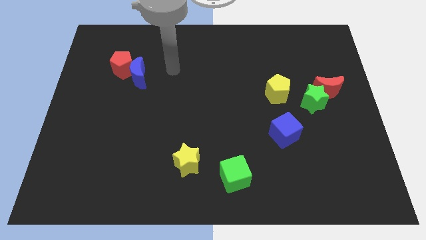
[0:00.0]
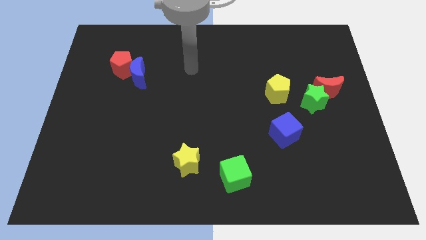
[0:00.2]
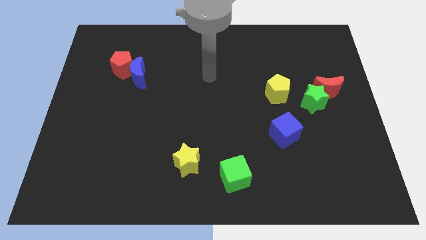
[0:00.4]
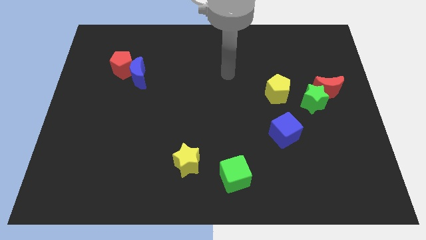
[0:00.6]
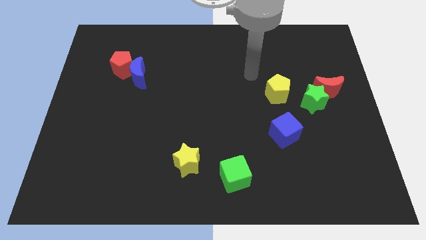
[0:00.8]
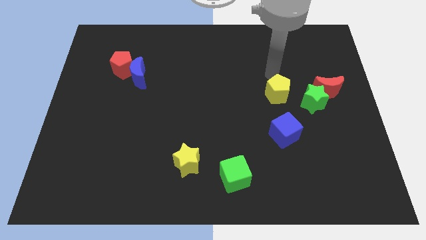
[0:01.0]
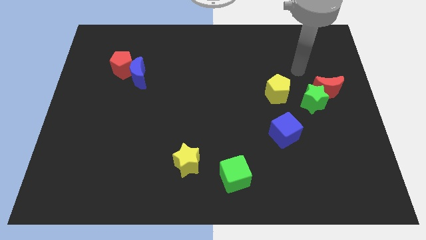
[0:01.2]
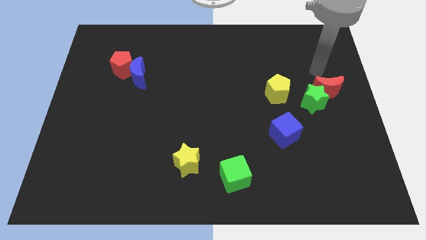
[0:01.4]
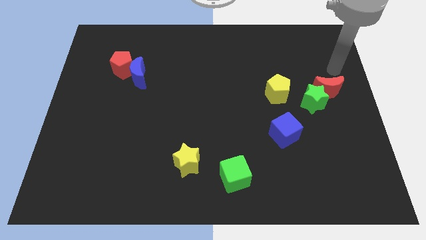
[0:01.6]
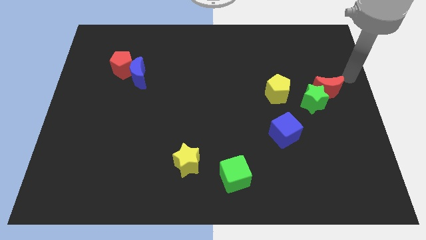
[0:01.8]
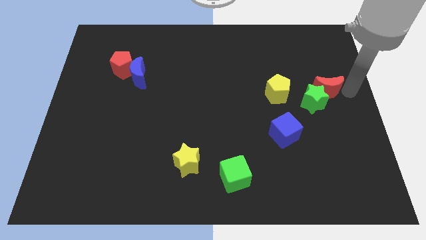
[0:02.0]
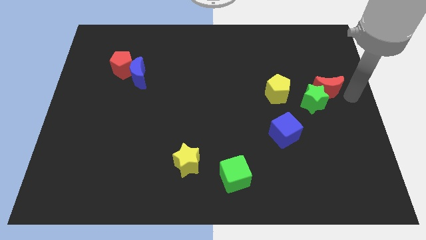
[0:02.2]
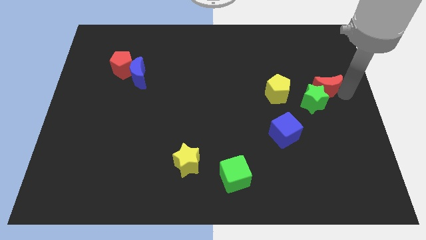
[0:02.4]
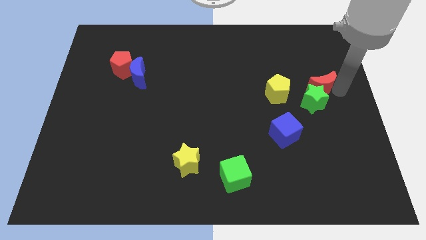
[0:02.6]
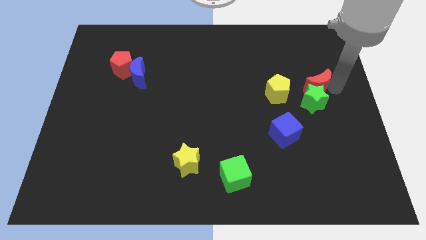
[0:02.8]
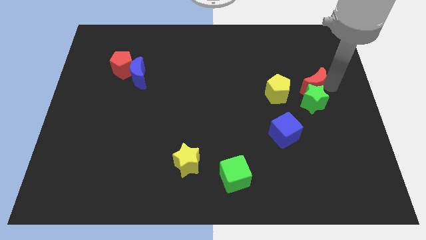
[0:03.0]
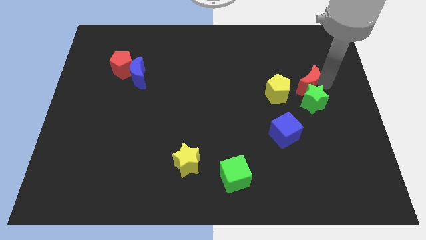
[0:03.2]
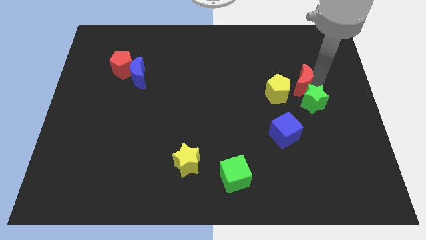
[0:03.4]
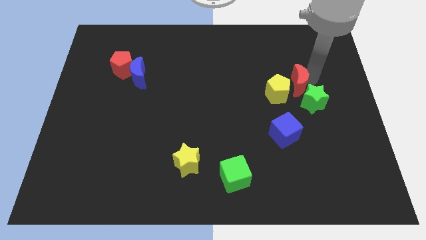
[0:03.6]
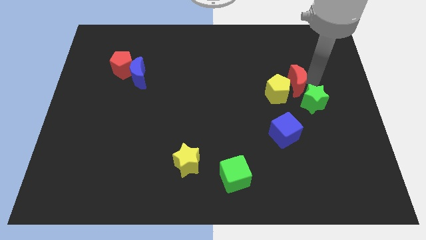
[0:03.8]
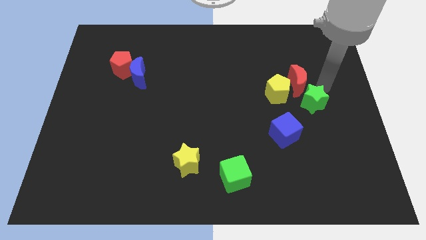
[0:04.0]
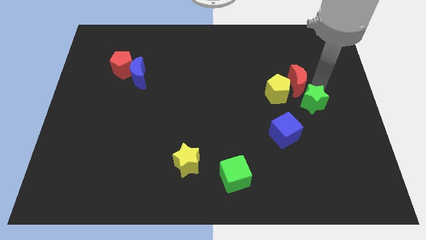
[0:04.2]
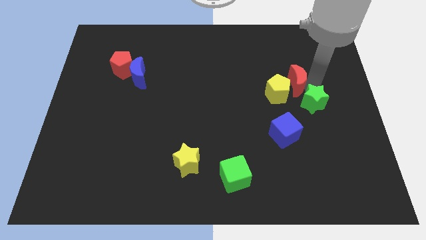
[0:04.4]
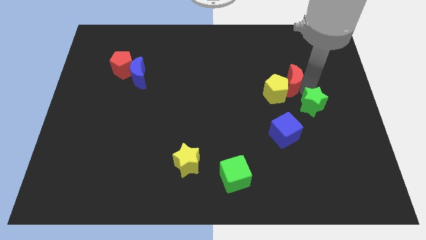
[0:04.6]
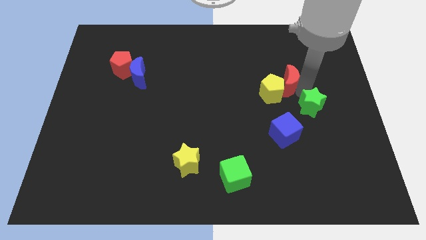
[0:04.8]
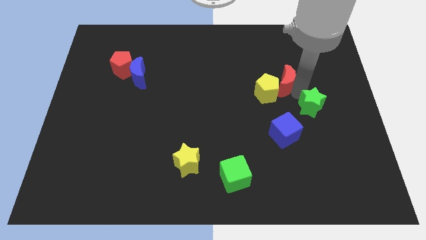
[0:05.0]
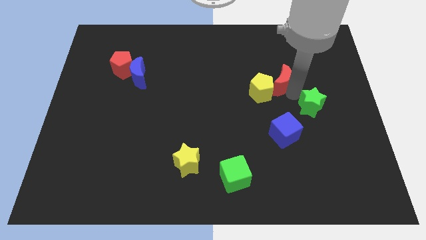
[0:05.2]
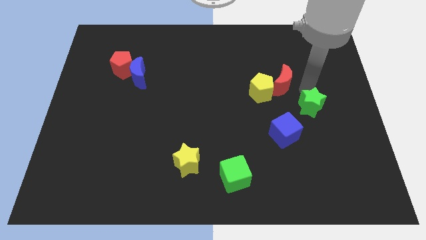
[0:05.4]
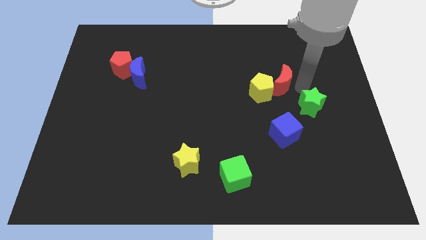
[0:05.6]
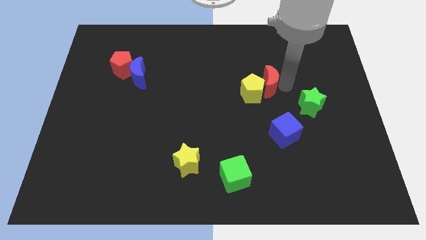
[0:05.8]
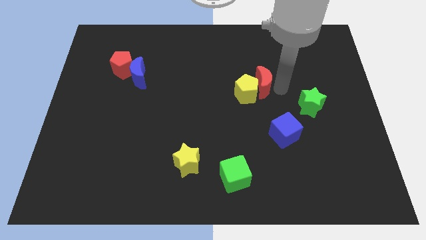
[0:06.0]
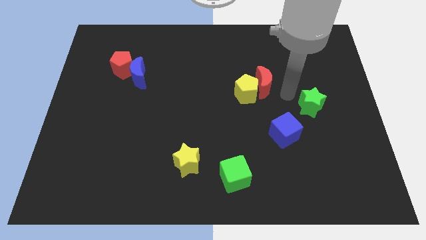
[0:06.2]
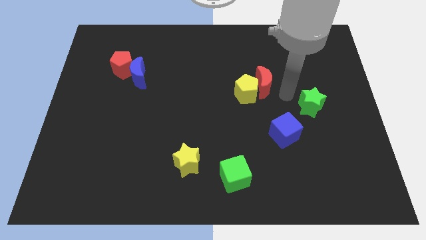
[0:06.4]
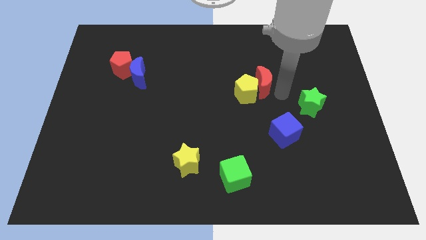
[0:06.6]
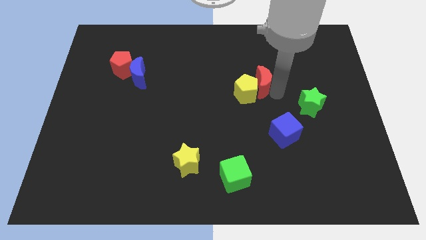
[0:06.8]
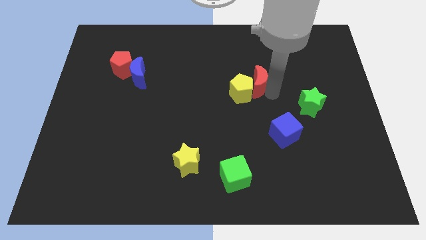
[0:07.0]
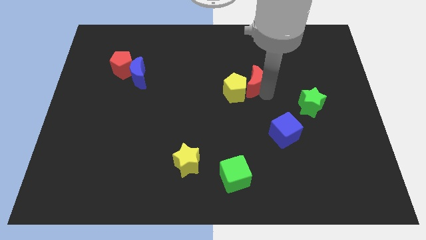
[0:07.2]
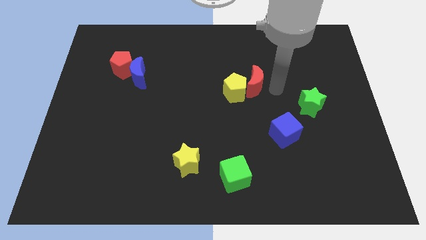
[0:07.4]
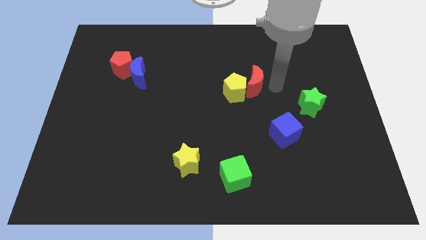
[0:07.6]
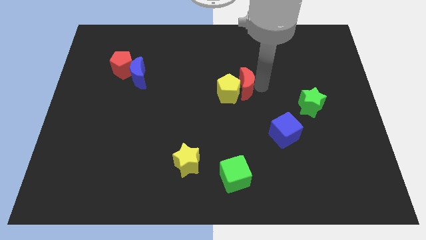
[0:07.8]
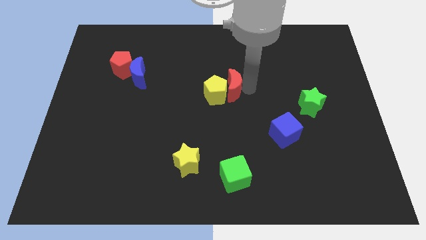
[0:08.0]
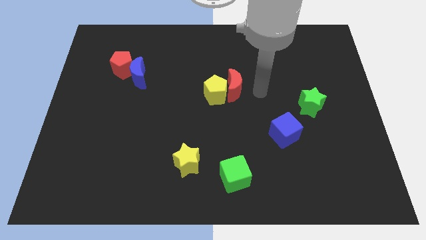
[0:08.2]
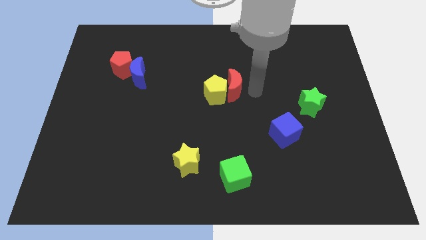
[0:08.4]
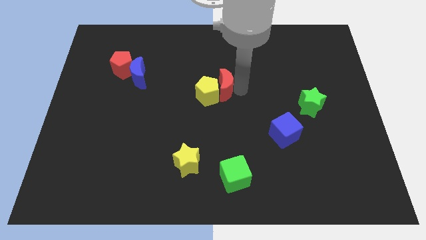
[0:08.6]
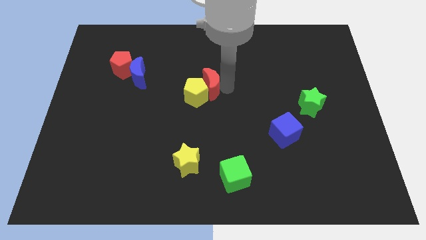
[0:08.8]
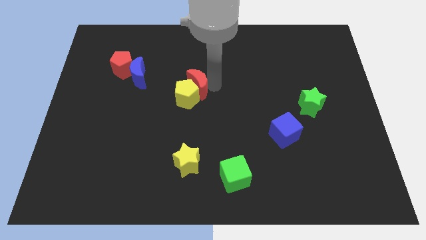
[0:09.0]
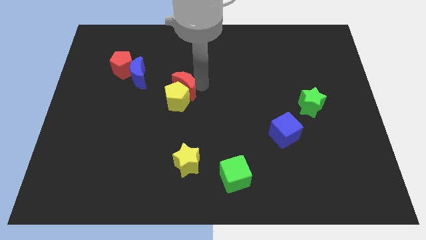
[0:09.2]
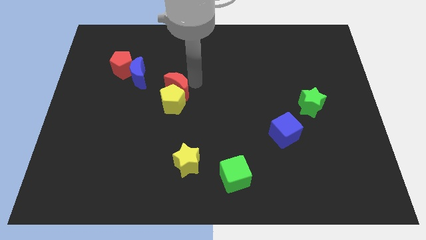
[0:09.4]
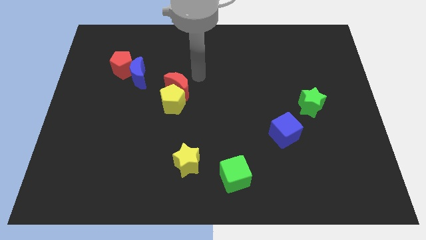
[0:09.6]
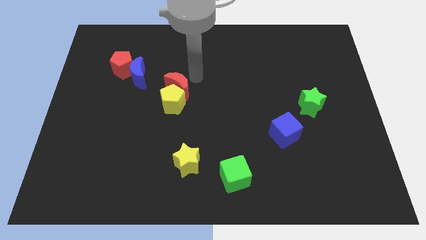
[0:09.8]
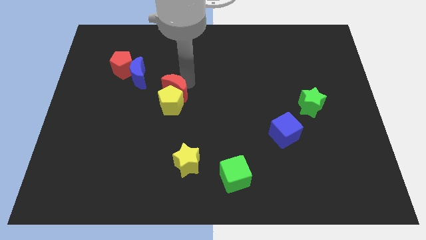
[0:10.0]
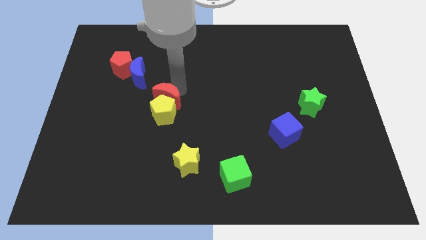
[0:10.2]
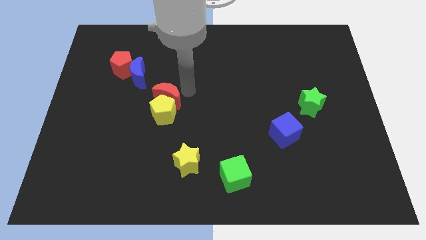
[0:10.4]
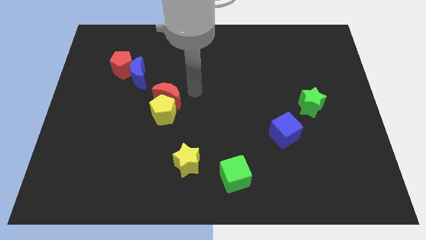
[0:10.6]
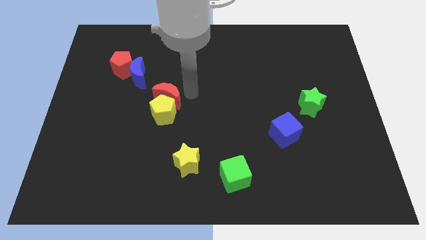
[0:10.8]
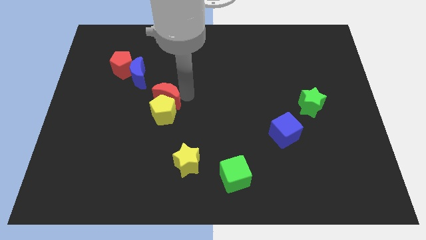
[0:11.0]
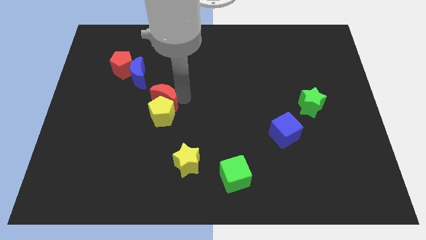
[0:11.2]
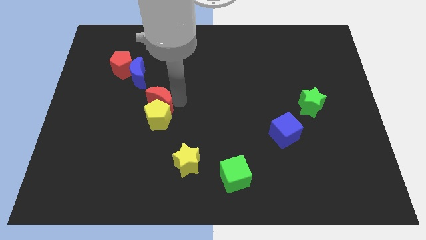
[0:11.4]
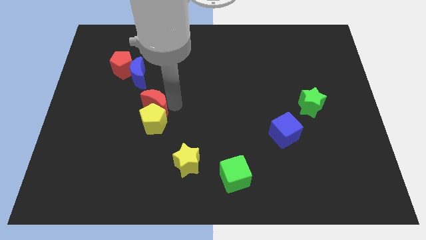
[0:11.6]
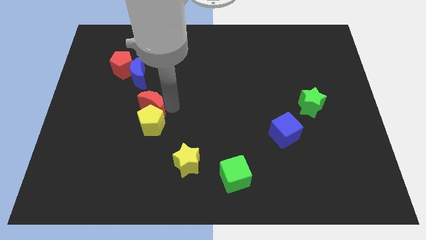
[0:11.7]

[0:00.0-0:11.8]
slide the red moon to the bottom of the blue moon

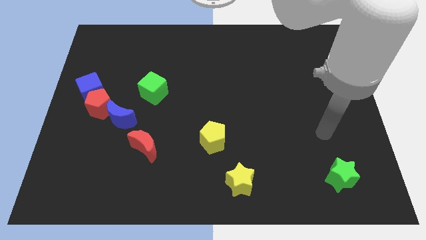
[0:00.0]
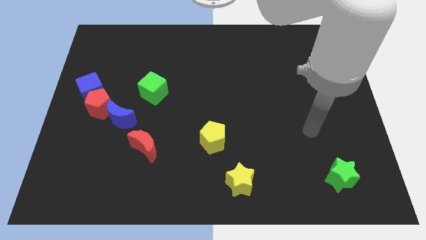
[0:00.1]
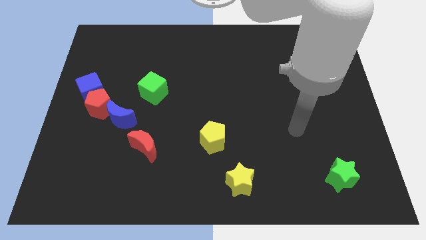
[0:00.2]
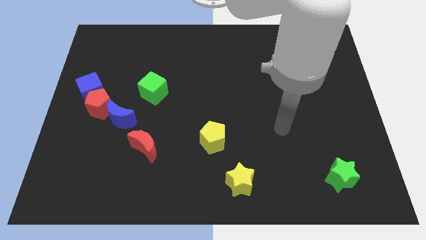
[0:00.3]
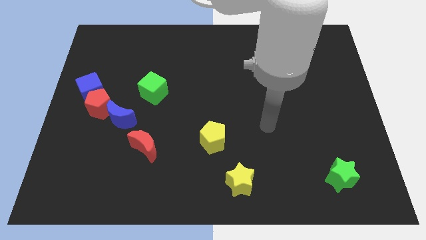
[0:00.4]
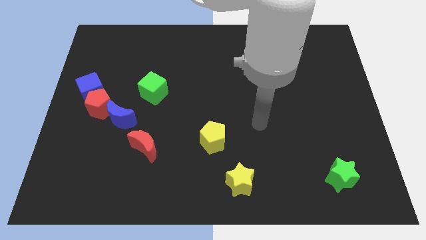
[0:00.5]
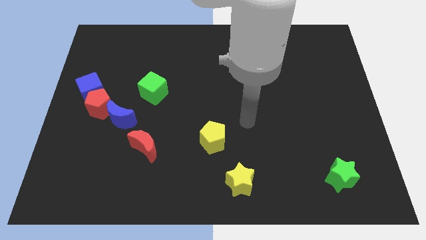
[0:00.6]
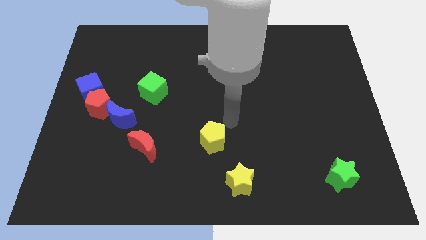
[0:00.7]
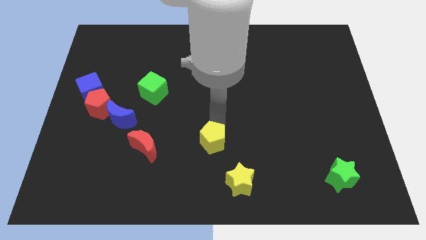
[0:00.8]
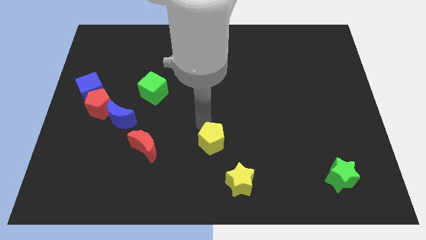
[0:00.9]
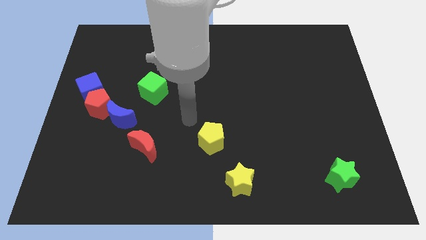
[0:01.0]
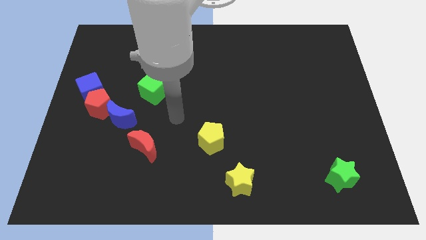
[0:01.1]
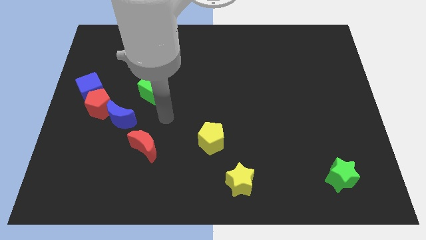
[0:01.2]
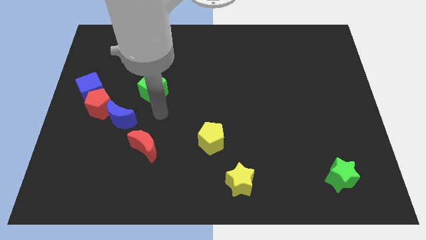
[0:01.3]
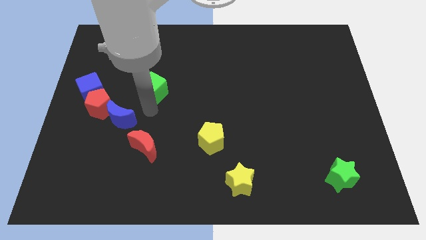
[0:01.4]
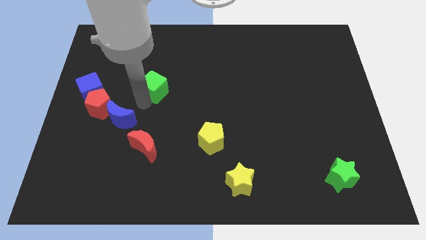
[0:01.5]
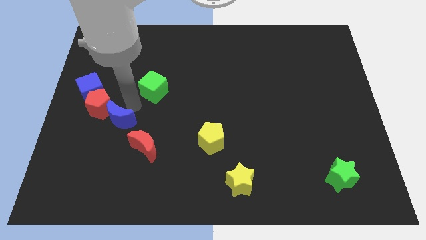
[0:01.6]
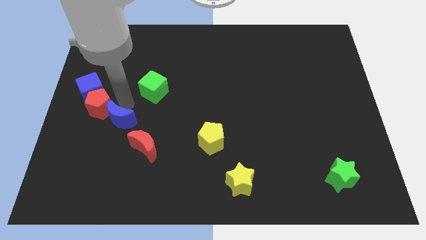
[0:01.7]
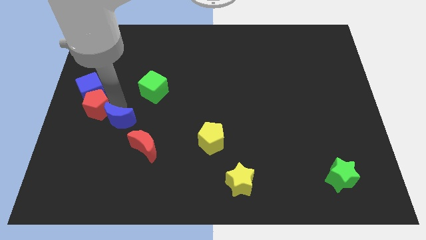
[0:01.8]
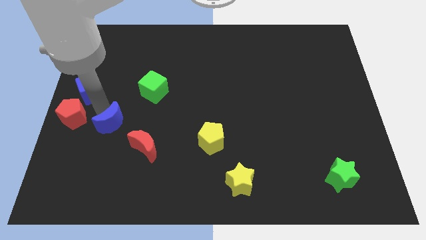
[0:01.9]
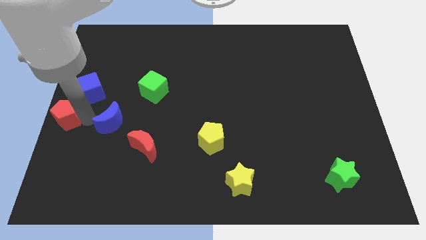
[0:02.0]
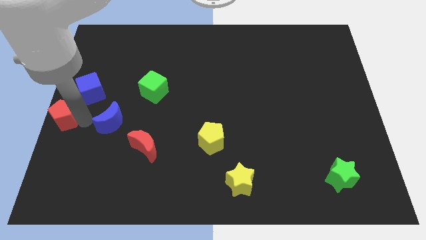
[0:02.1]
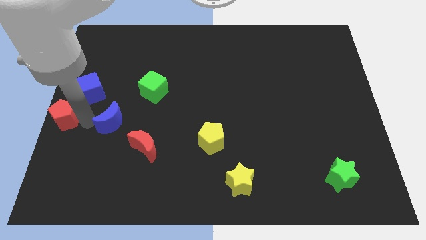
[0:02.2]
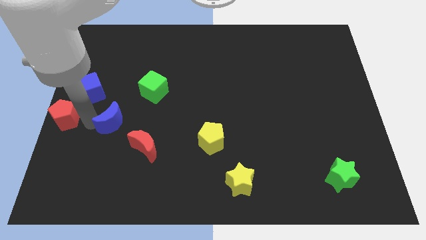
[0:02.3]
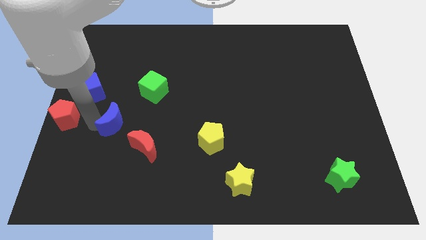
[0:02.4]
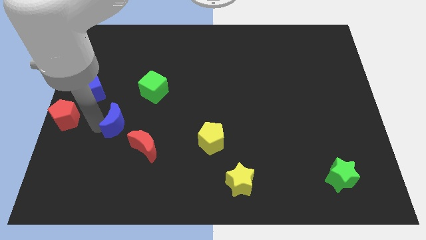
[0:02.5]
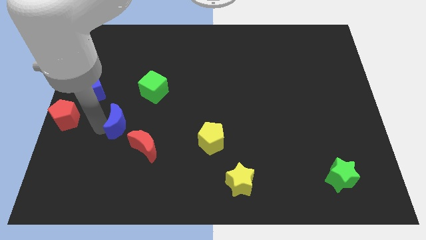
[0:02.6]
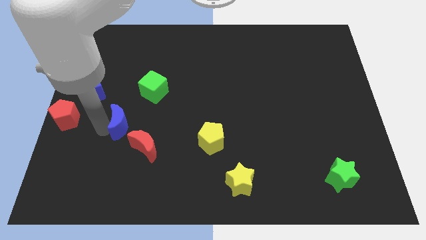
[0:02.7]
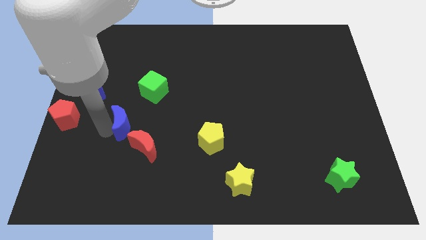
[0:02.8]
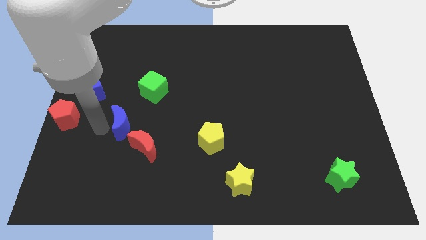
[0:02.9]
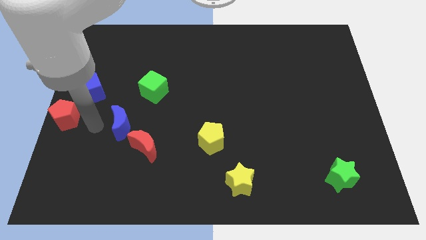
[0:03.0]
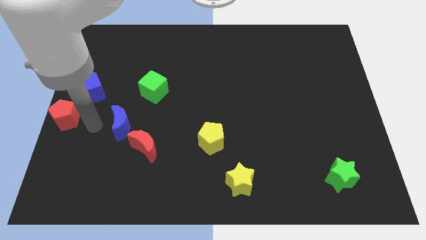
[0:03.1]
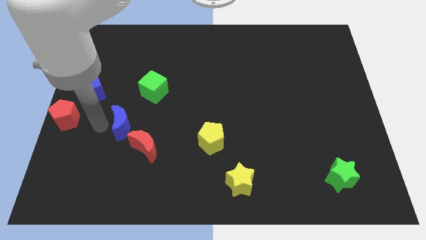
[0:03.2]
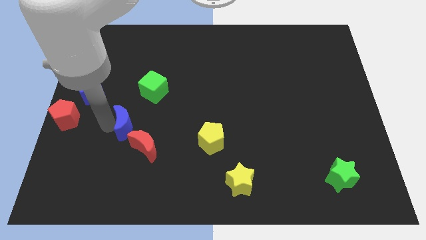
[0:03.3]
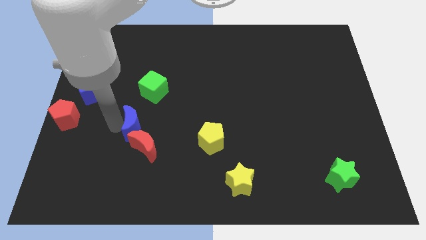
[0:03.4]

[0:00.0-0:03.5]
push the blue moon below the green cube
